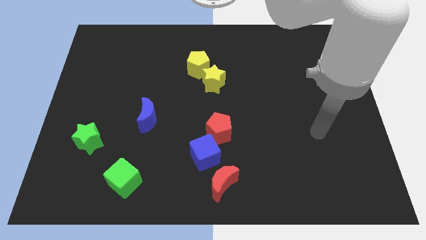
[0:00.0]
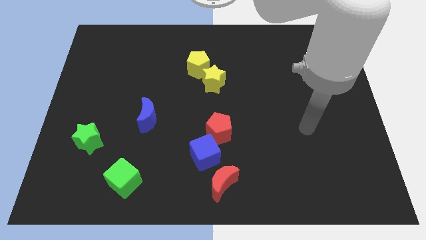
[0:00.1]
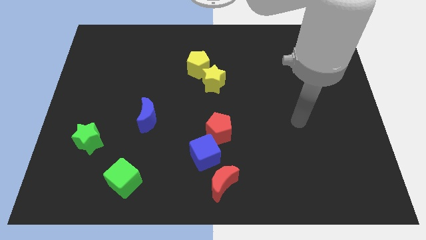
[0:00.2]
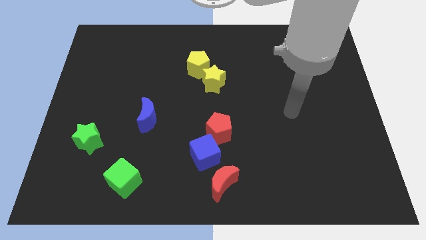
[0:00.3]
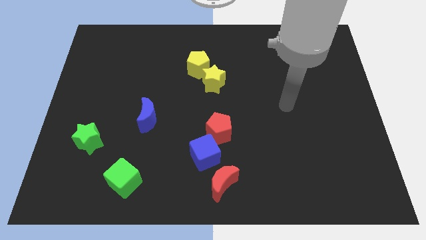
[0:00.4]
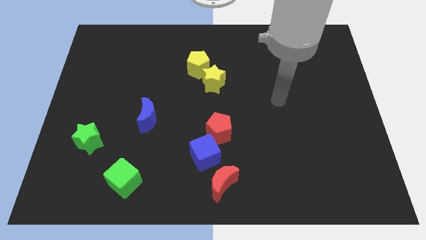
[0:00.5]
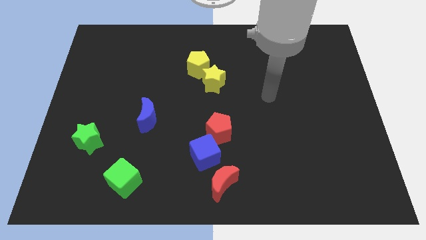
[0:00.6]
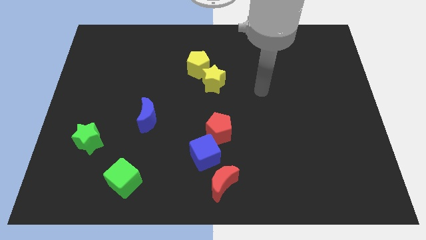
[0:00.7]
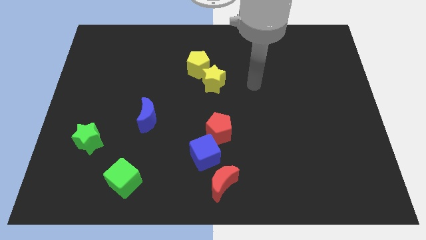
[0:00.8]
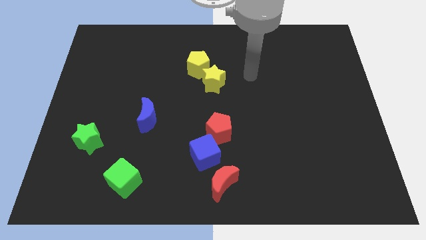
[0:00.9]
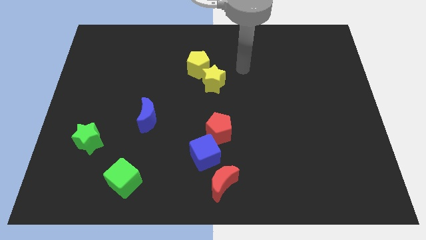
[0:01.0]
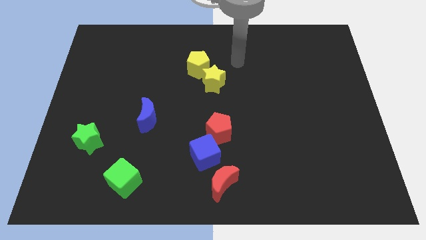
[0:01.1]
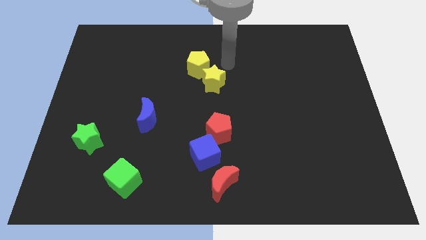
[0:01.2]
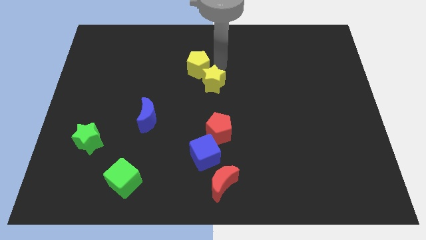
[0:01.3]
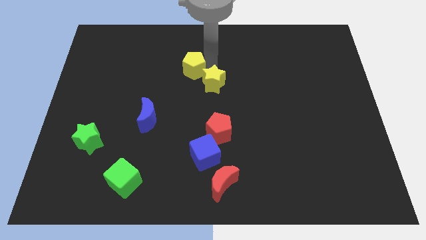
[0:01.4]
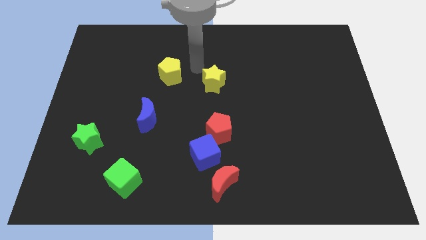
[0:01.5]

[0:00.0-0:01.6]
pull the yellow star apart from the yellow pentagon

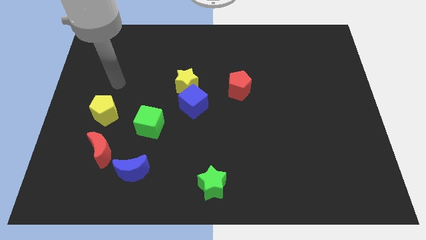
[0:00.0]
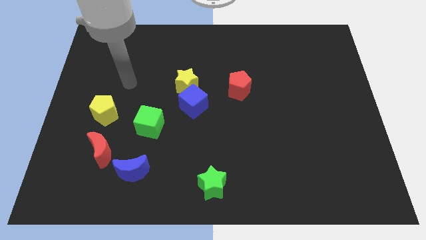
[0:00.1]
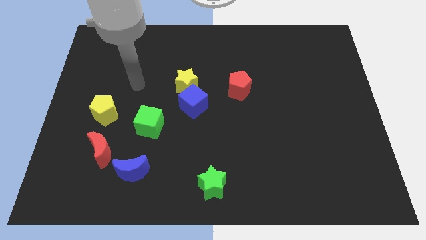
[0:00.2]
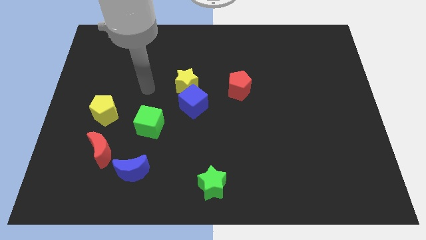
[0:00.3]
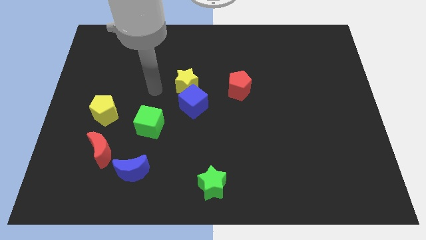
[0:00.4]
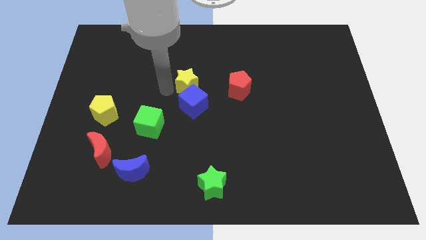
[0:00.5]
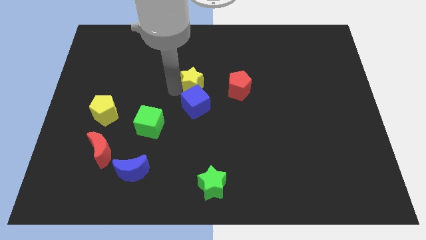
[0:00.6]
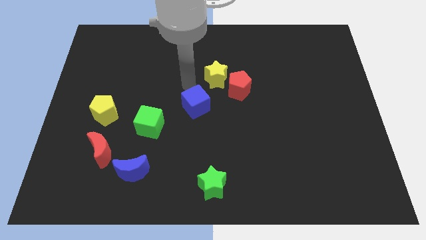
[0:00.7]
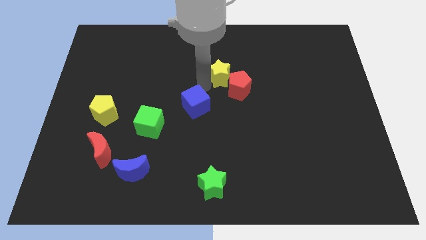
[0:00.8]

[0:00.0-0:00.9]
move the blue cube away from the yellow star

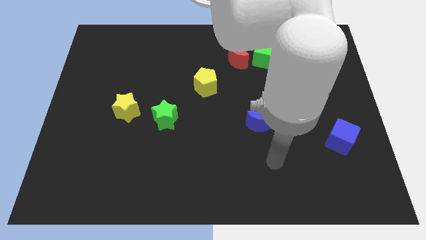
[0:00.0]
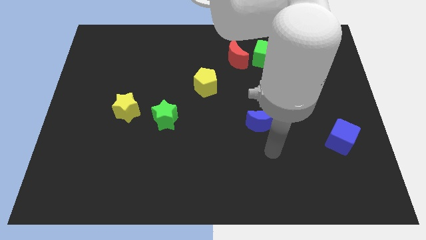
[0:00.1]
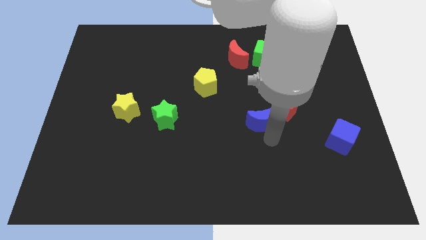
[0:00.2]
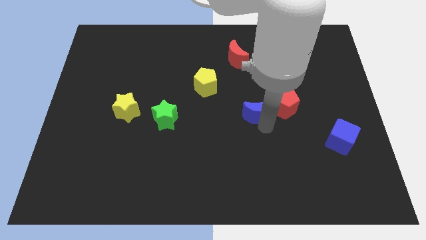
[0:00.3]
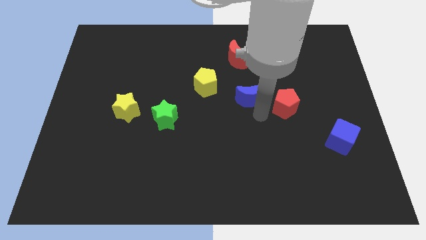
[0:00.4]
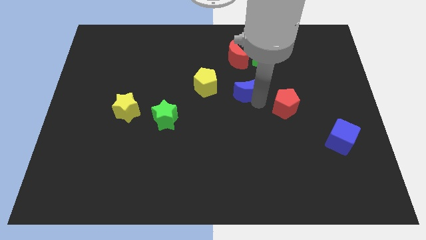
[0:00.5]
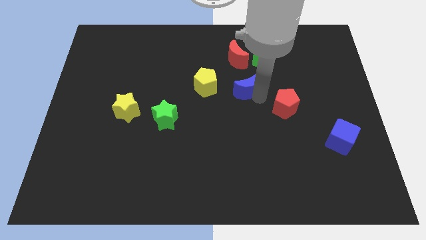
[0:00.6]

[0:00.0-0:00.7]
separate the red pentagon from the blue moon

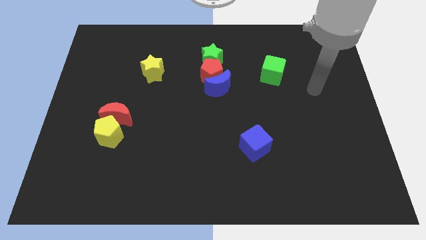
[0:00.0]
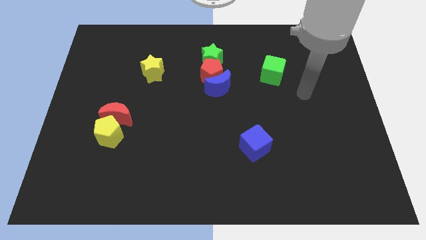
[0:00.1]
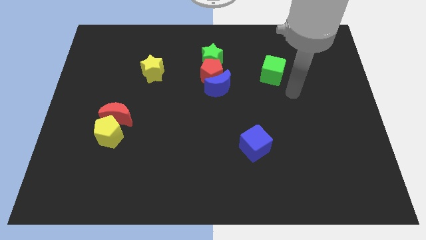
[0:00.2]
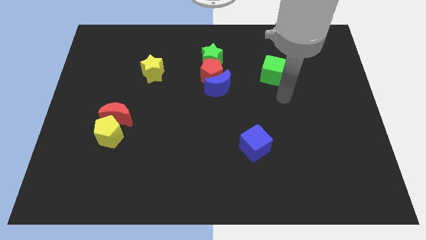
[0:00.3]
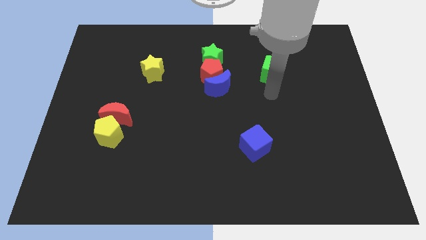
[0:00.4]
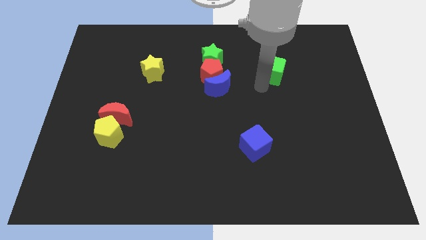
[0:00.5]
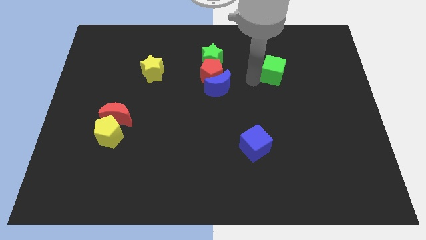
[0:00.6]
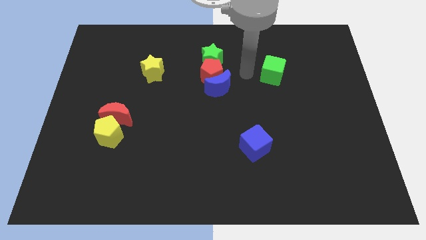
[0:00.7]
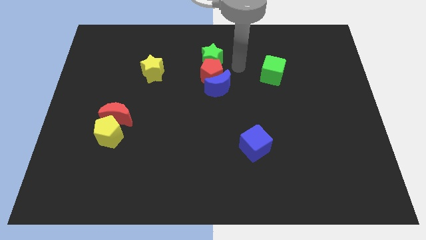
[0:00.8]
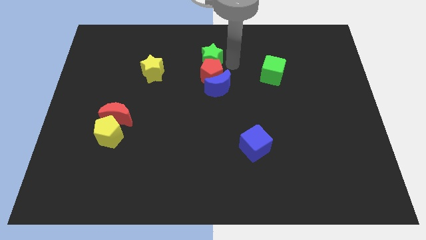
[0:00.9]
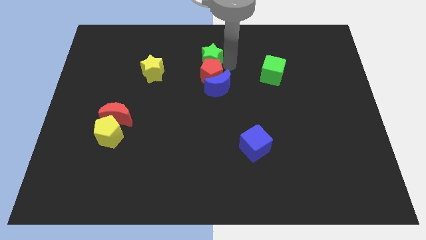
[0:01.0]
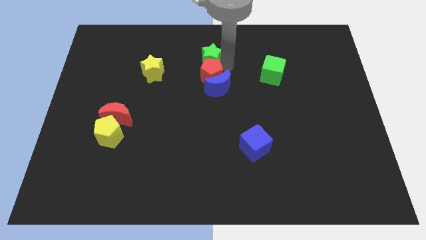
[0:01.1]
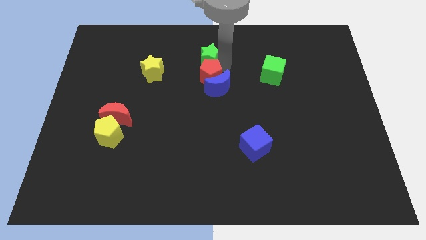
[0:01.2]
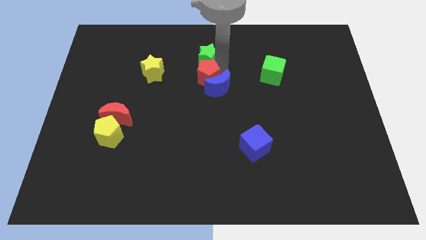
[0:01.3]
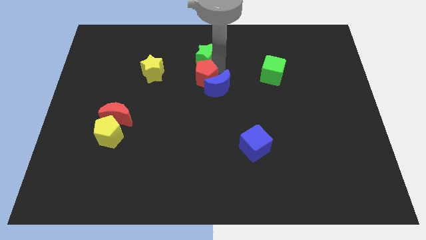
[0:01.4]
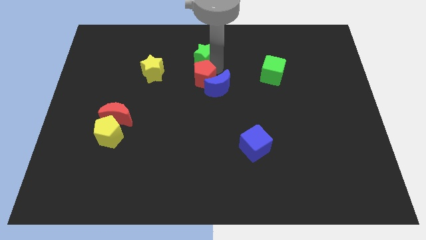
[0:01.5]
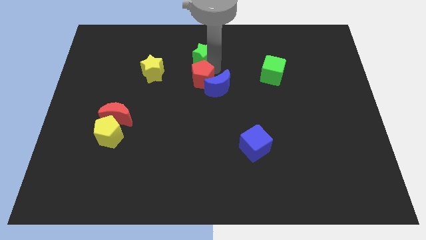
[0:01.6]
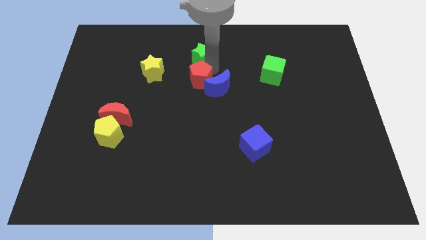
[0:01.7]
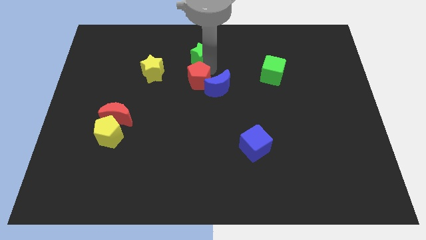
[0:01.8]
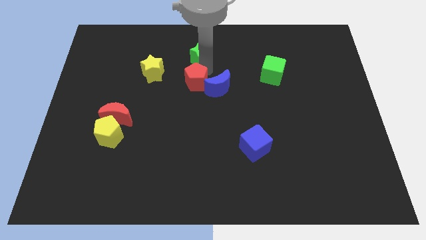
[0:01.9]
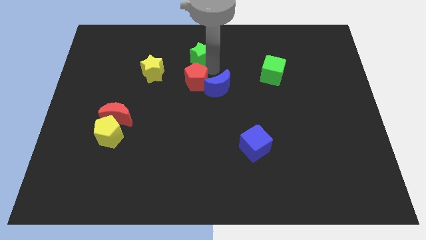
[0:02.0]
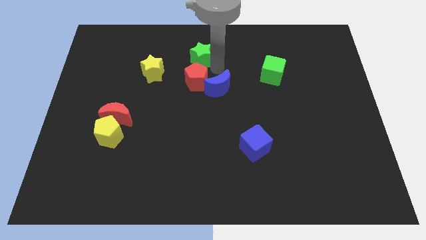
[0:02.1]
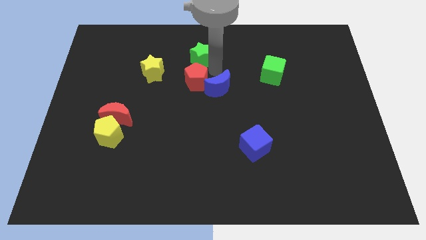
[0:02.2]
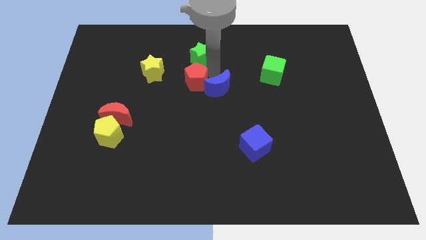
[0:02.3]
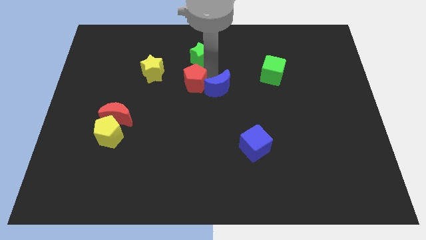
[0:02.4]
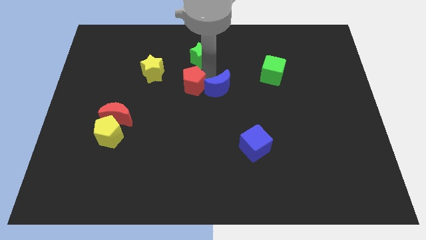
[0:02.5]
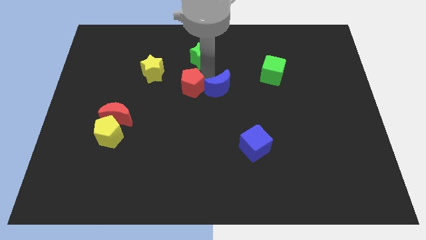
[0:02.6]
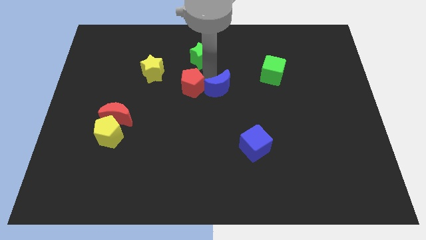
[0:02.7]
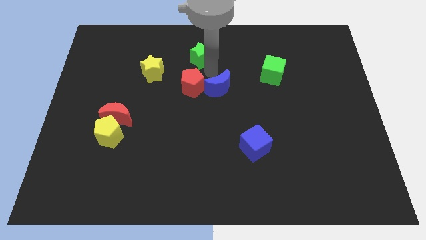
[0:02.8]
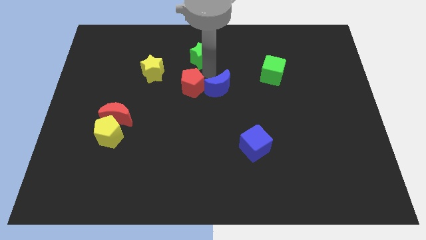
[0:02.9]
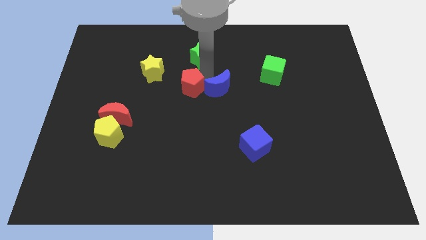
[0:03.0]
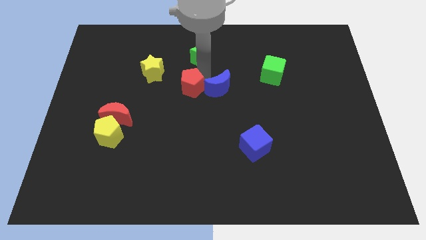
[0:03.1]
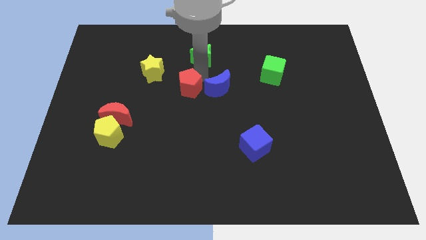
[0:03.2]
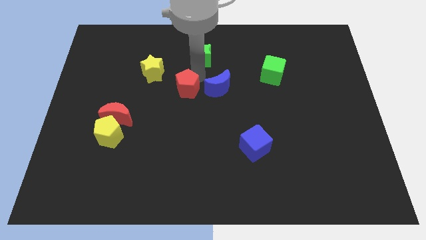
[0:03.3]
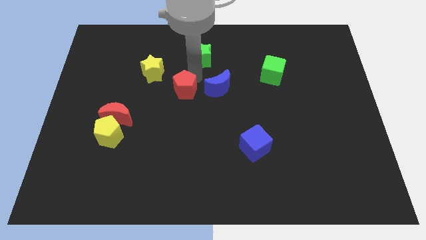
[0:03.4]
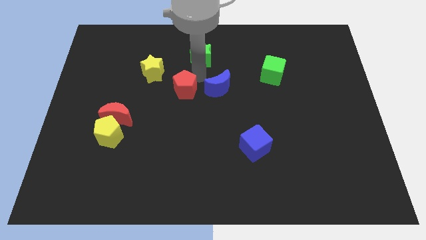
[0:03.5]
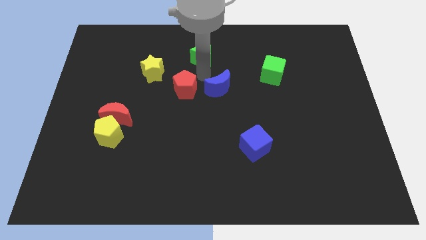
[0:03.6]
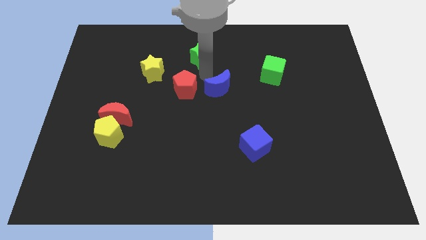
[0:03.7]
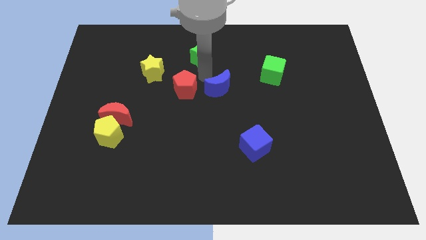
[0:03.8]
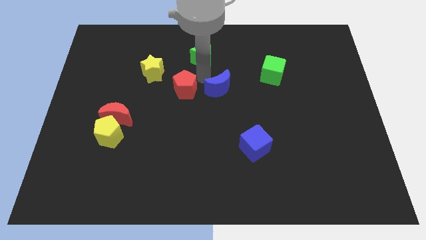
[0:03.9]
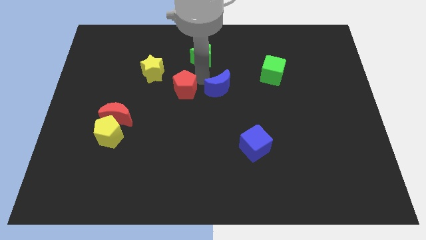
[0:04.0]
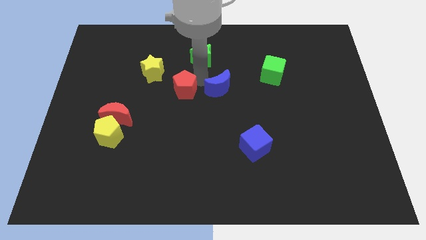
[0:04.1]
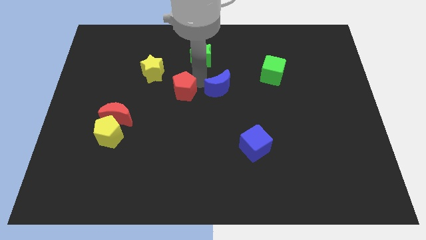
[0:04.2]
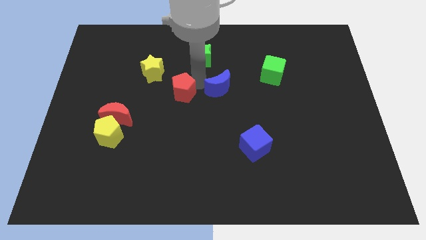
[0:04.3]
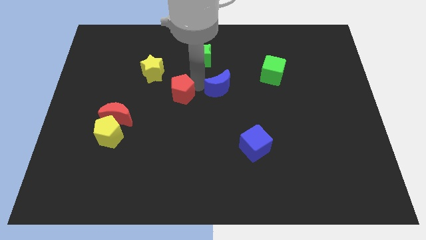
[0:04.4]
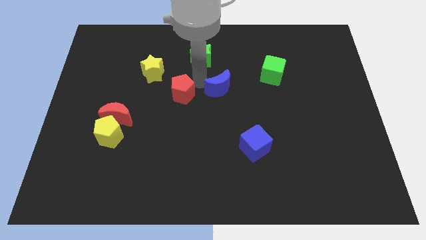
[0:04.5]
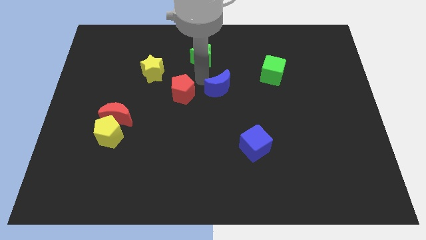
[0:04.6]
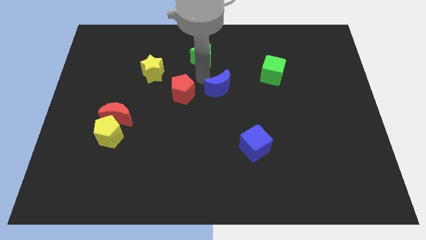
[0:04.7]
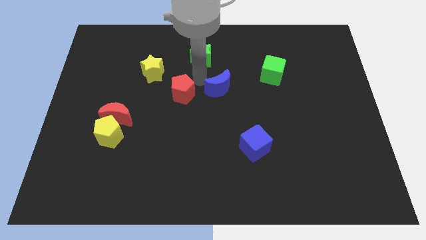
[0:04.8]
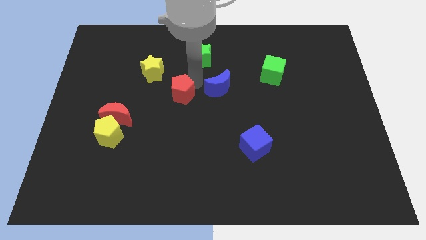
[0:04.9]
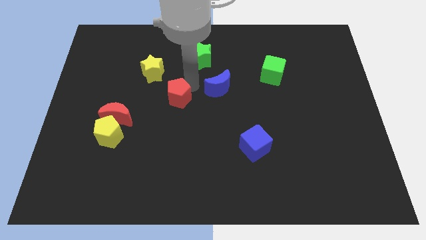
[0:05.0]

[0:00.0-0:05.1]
move the red pentagon away from the blue moon and green star

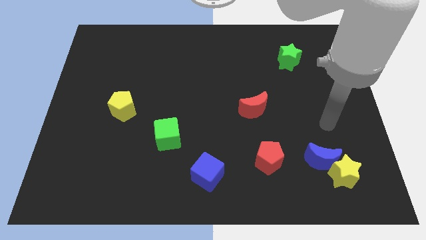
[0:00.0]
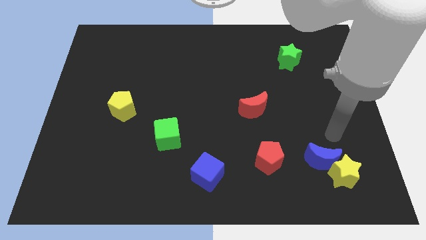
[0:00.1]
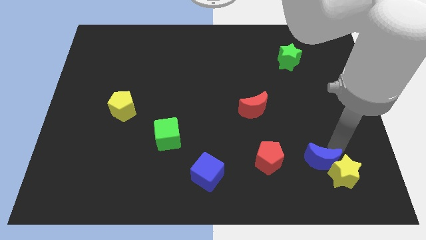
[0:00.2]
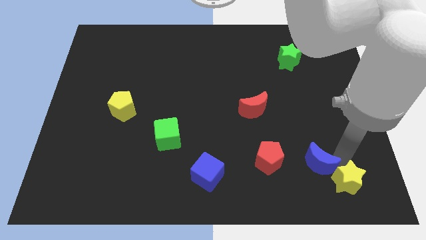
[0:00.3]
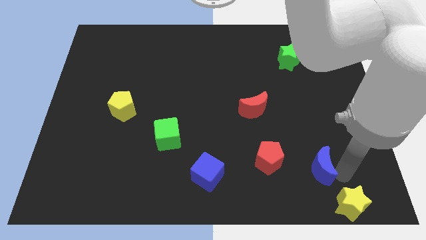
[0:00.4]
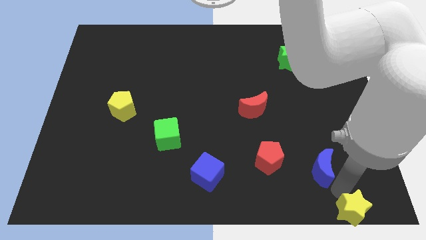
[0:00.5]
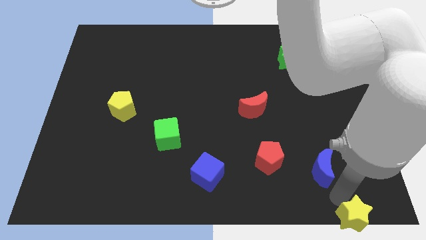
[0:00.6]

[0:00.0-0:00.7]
pull the blue moon apart from the yellow star

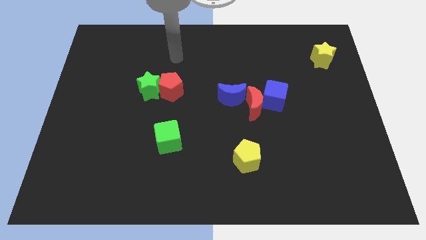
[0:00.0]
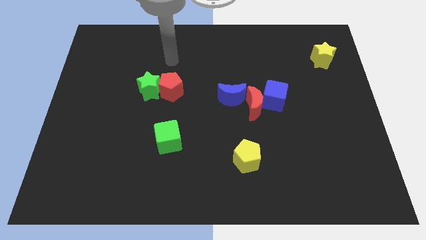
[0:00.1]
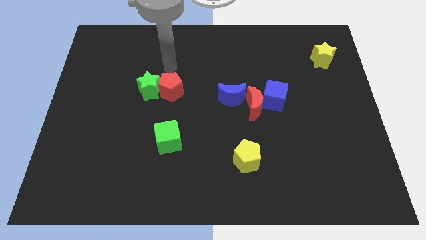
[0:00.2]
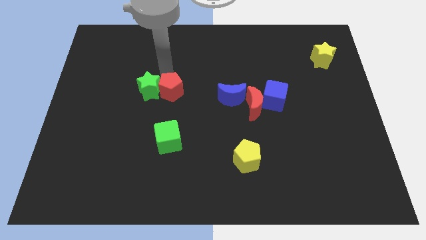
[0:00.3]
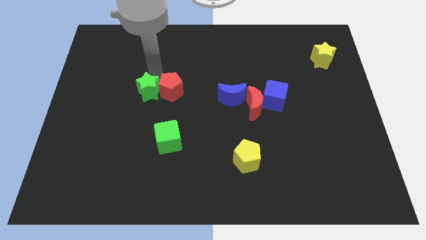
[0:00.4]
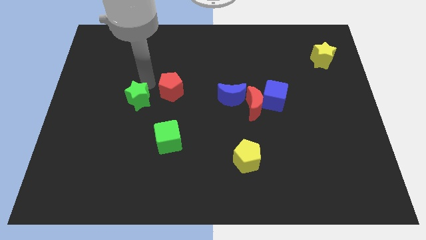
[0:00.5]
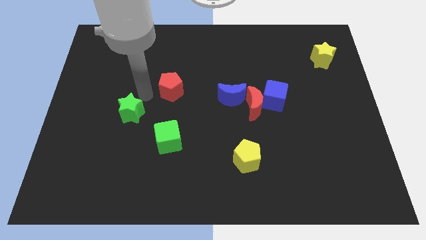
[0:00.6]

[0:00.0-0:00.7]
move the red pentagon away from the green star
